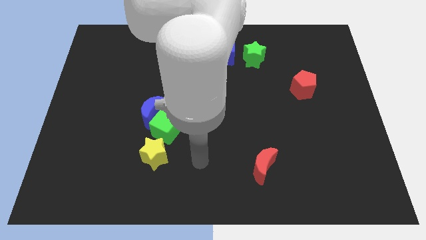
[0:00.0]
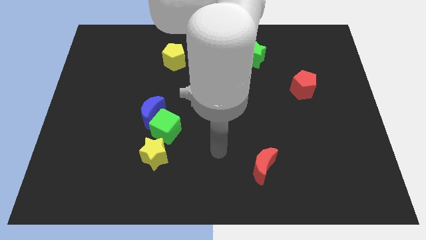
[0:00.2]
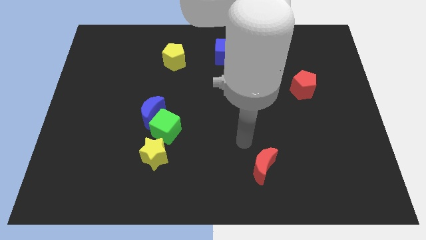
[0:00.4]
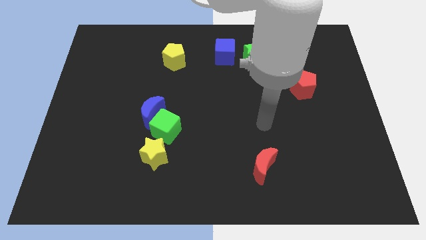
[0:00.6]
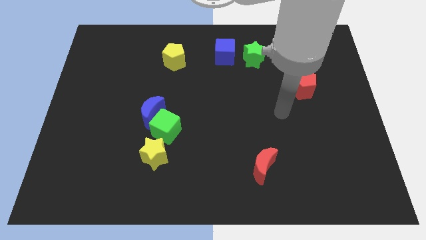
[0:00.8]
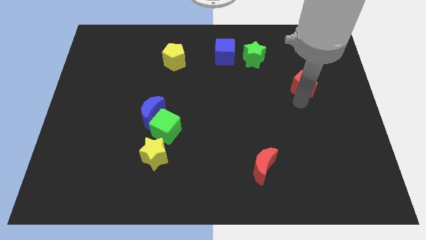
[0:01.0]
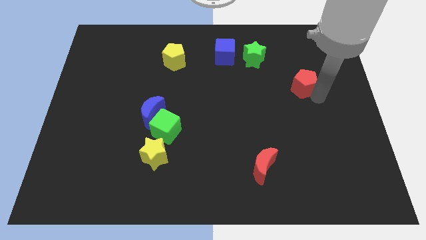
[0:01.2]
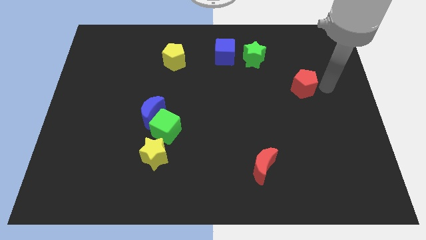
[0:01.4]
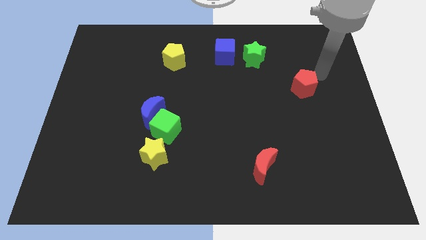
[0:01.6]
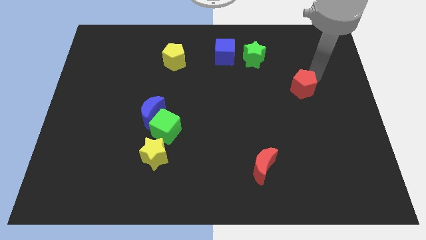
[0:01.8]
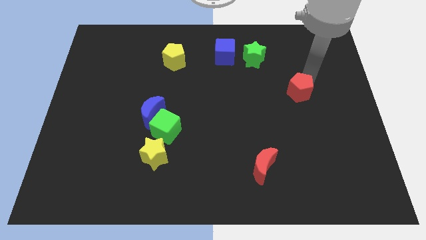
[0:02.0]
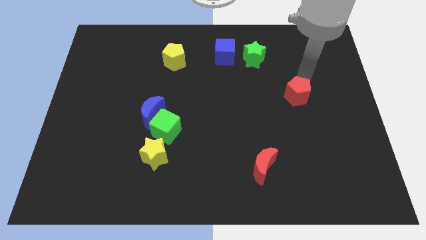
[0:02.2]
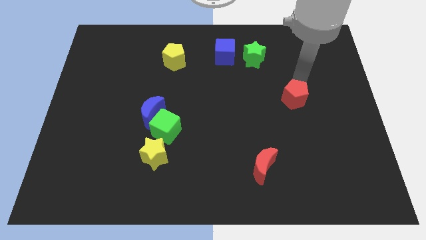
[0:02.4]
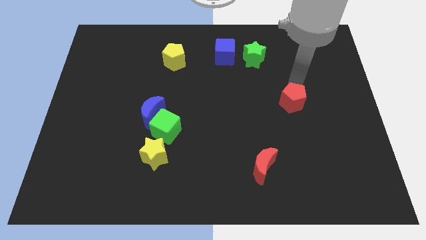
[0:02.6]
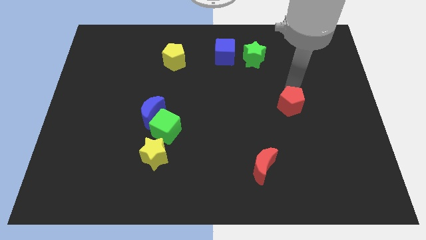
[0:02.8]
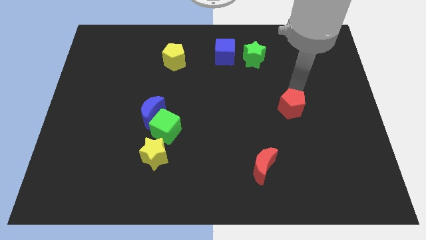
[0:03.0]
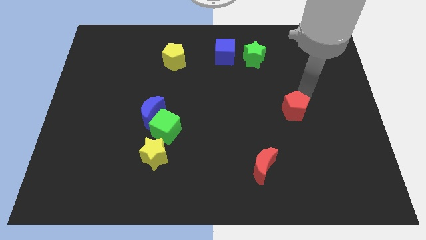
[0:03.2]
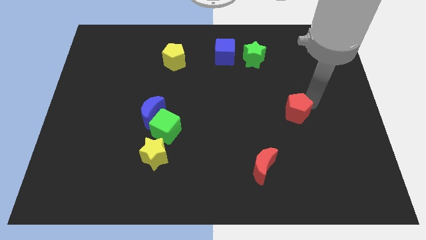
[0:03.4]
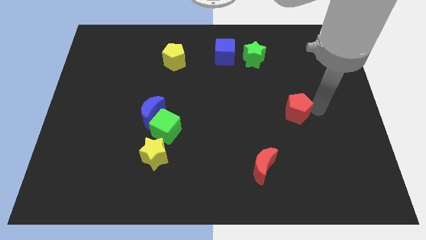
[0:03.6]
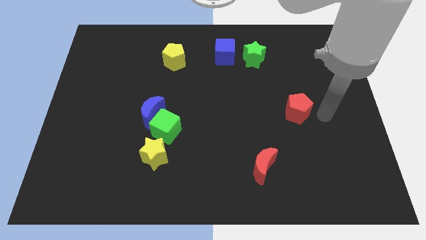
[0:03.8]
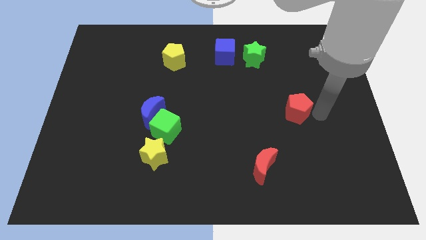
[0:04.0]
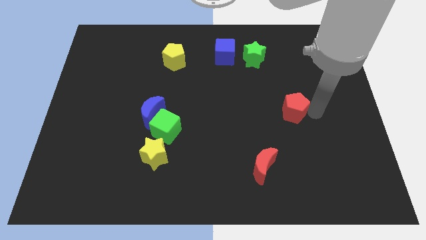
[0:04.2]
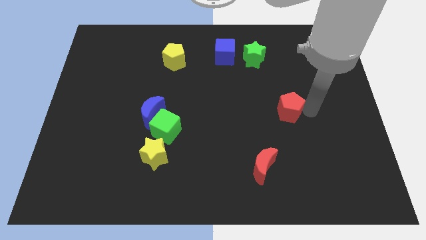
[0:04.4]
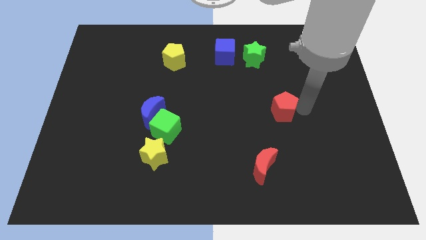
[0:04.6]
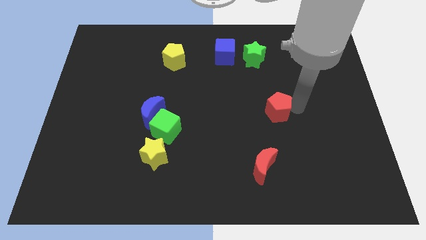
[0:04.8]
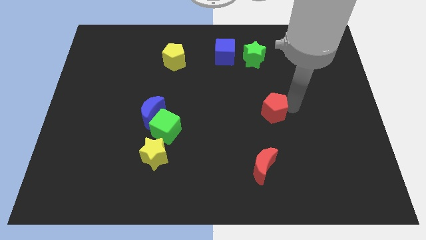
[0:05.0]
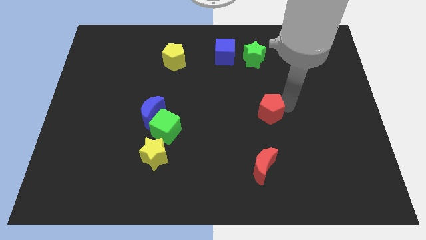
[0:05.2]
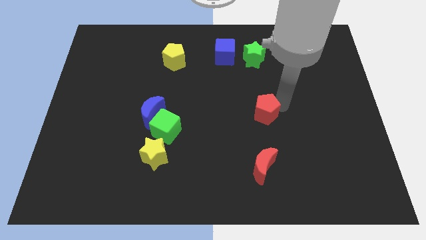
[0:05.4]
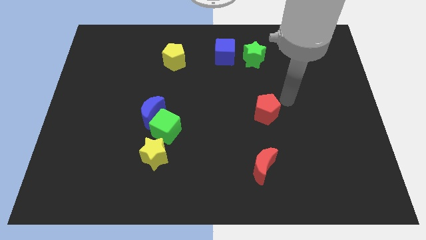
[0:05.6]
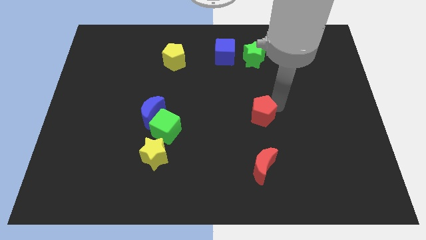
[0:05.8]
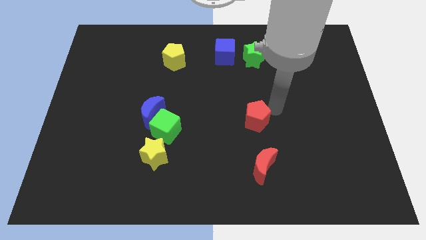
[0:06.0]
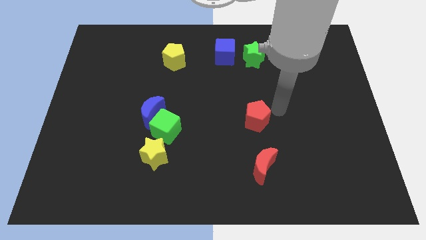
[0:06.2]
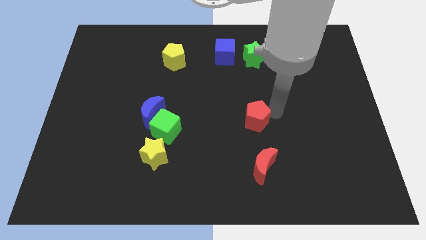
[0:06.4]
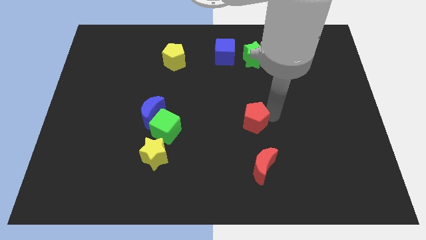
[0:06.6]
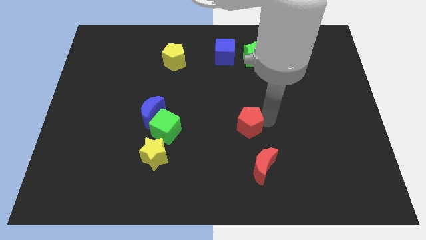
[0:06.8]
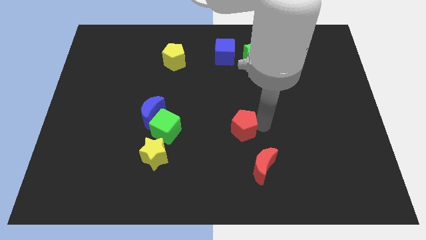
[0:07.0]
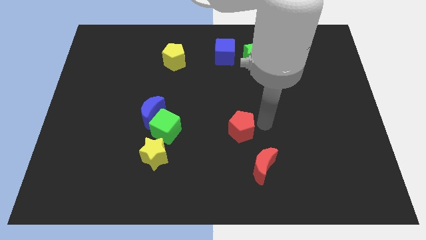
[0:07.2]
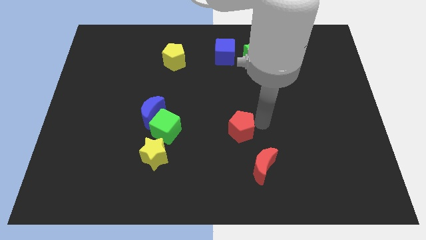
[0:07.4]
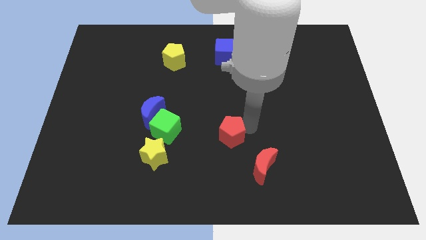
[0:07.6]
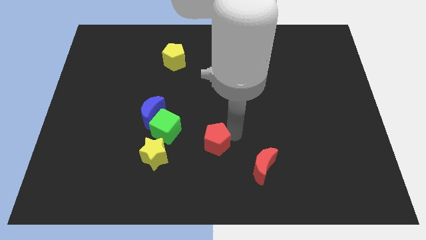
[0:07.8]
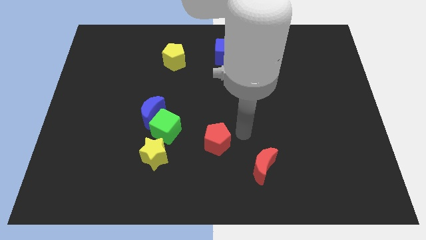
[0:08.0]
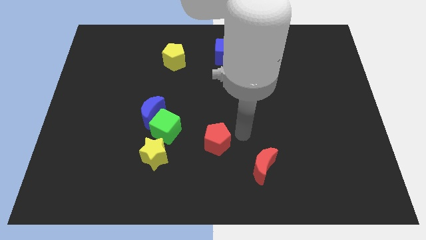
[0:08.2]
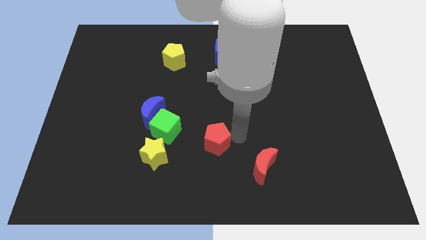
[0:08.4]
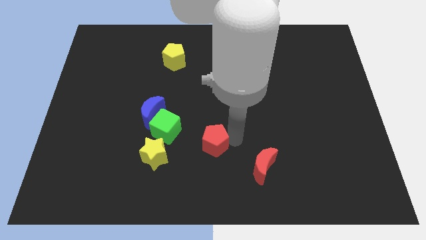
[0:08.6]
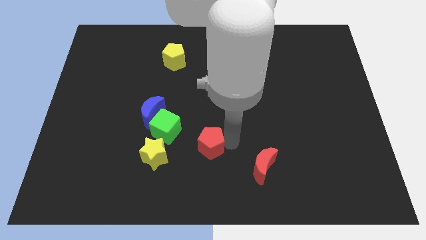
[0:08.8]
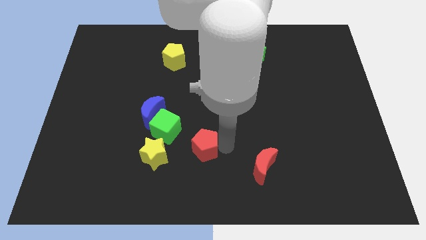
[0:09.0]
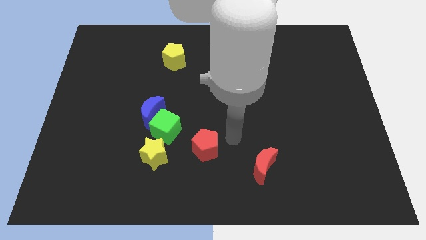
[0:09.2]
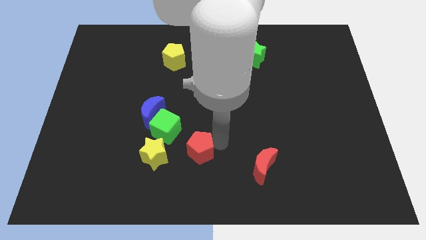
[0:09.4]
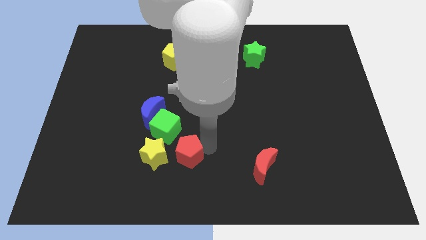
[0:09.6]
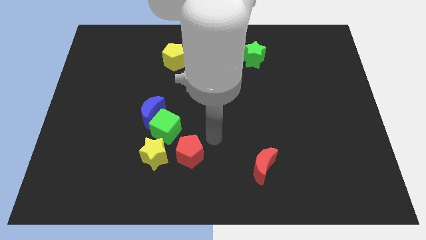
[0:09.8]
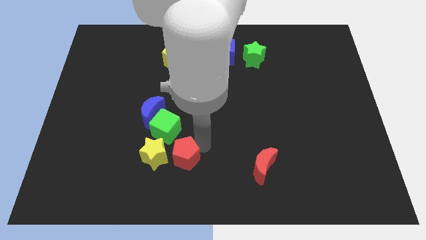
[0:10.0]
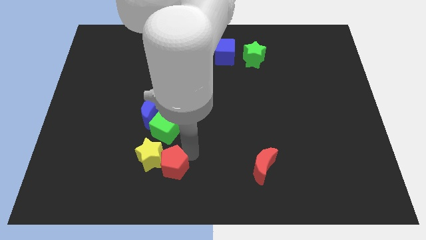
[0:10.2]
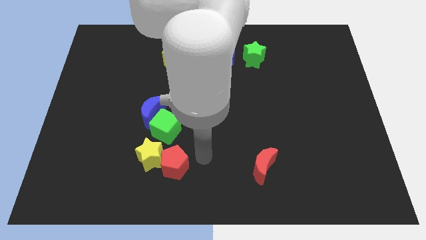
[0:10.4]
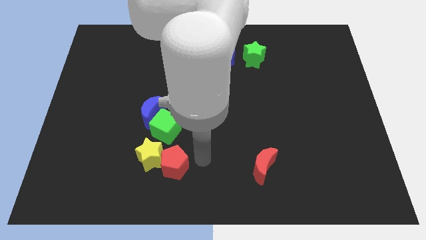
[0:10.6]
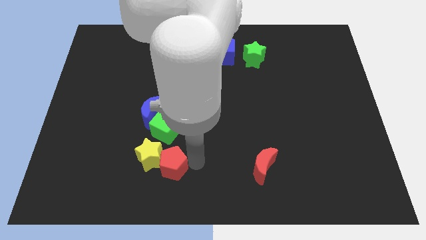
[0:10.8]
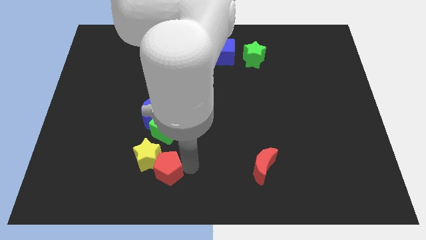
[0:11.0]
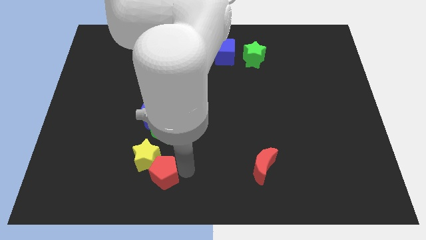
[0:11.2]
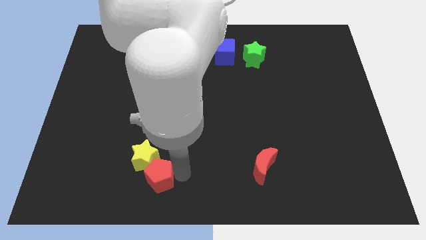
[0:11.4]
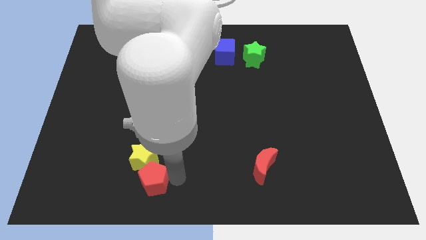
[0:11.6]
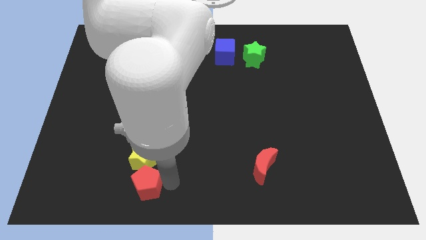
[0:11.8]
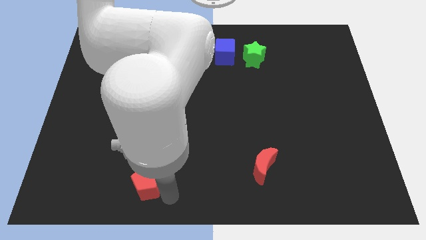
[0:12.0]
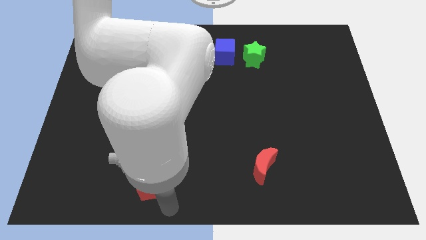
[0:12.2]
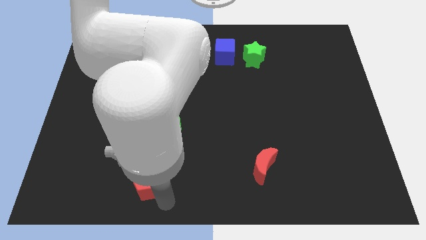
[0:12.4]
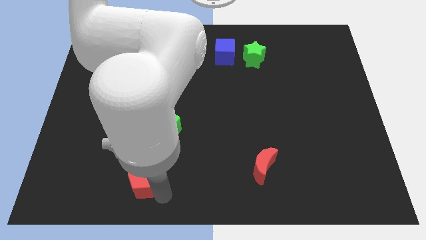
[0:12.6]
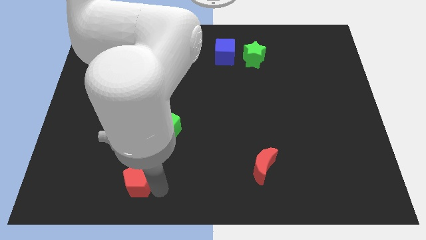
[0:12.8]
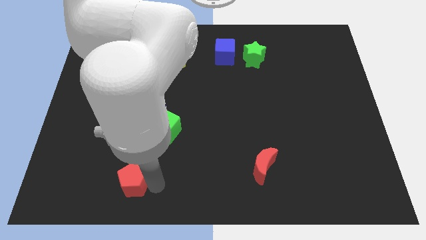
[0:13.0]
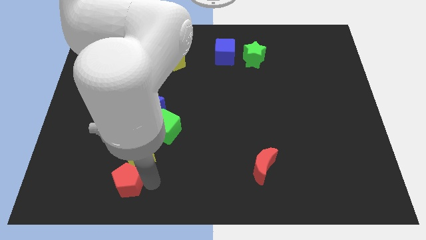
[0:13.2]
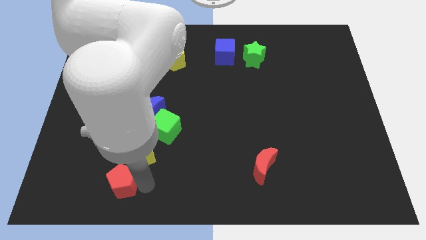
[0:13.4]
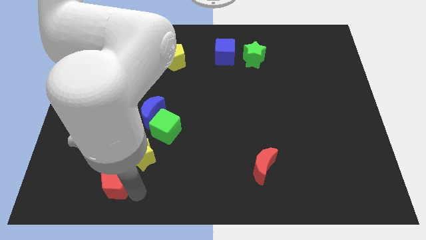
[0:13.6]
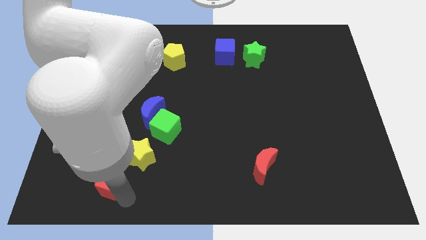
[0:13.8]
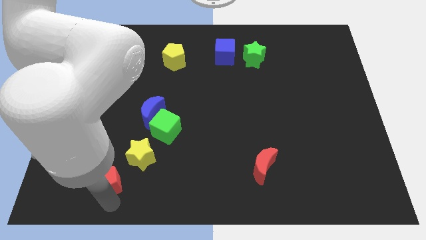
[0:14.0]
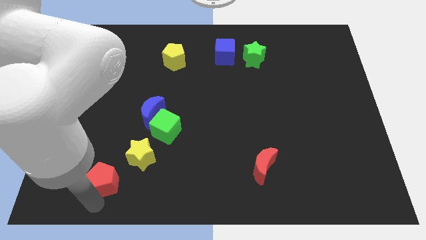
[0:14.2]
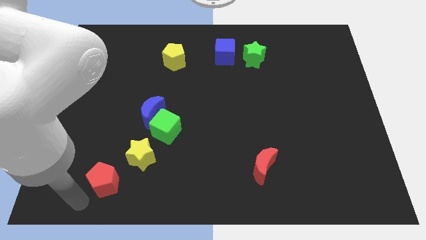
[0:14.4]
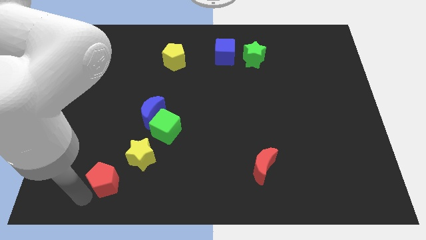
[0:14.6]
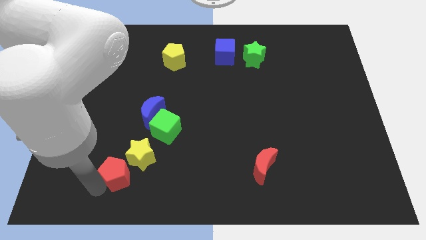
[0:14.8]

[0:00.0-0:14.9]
move the red pentagon to the left of the yellow star

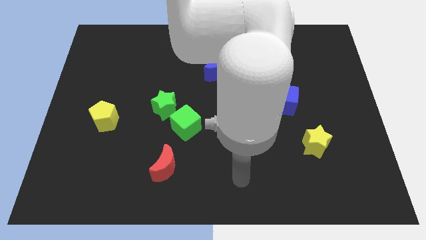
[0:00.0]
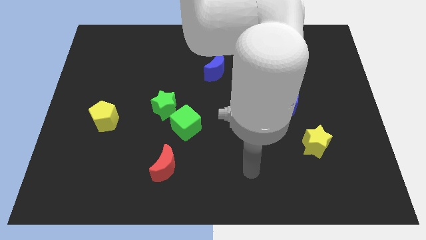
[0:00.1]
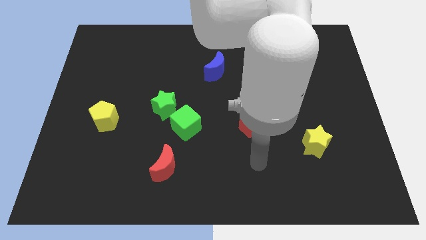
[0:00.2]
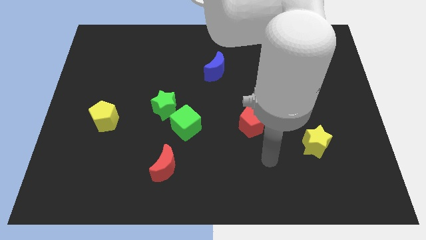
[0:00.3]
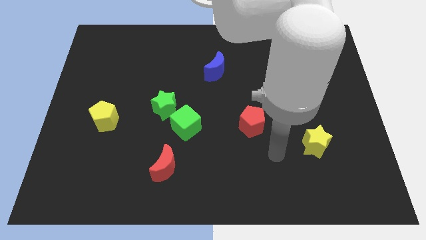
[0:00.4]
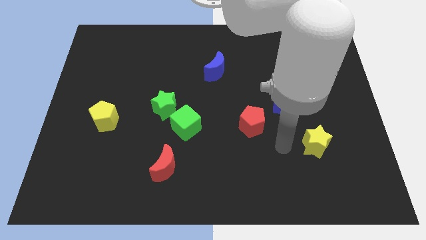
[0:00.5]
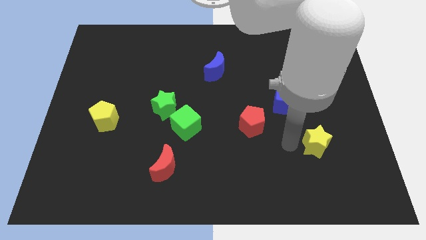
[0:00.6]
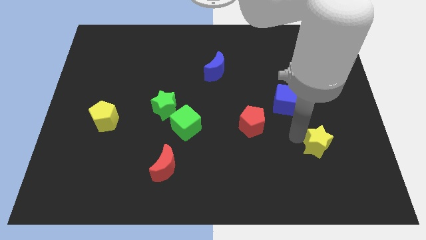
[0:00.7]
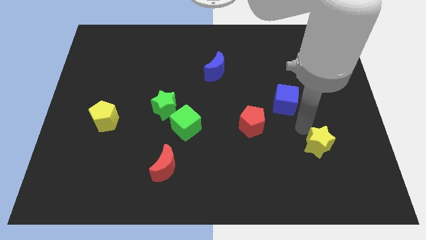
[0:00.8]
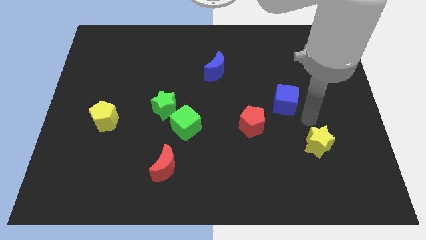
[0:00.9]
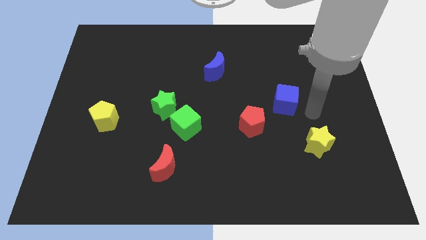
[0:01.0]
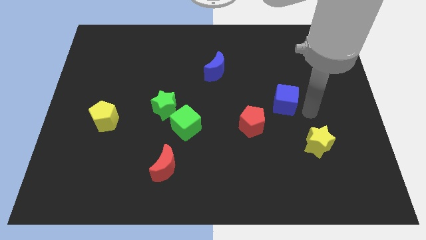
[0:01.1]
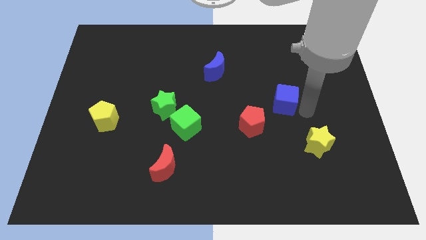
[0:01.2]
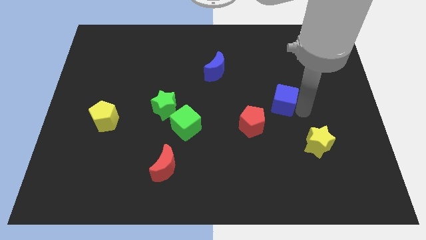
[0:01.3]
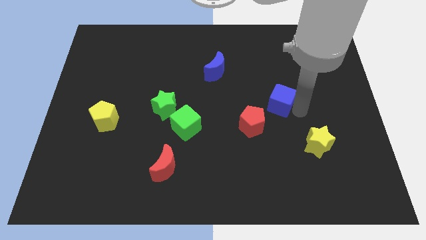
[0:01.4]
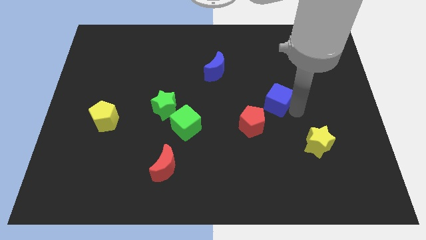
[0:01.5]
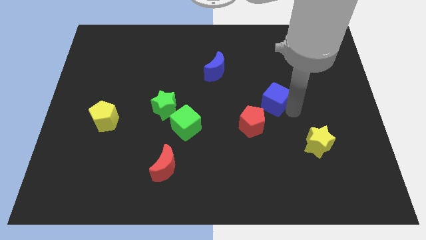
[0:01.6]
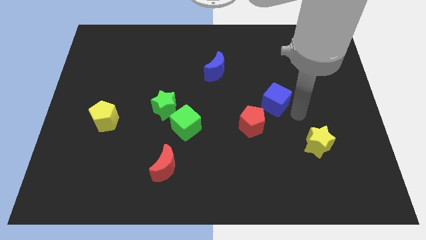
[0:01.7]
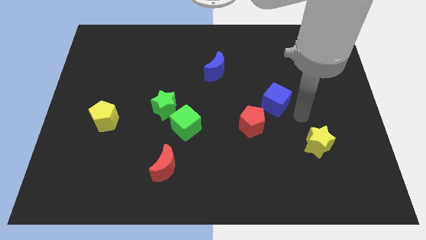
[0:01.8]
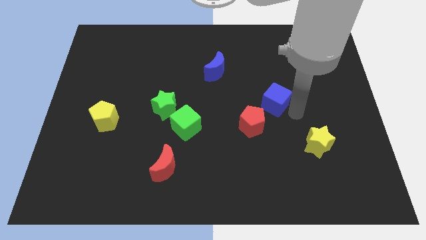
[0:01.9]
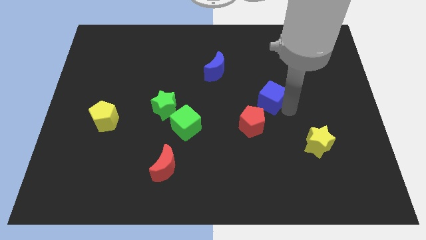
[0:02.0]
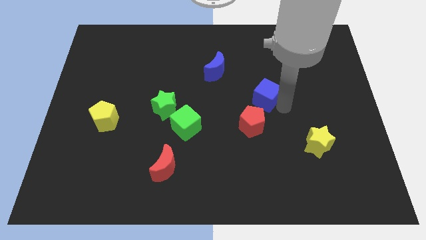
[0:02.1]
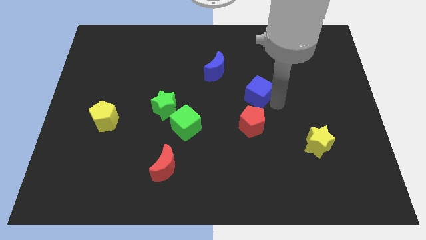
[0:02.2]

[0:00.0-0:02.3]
put the blue cube to the bottom right of the blue moon
